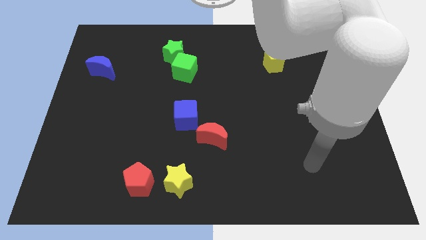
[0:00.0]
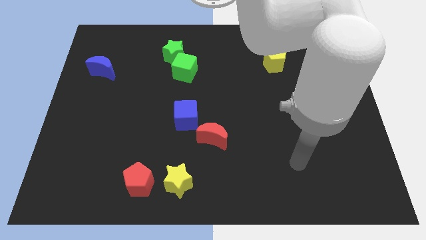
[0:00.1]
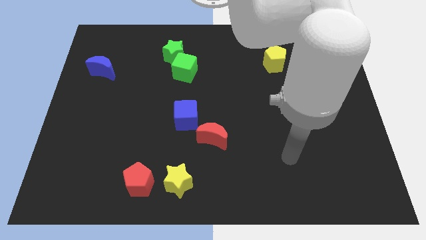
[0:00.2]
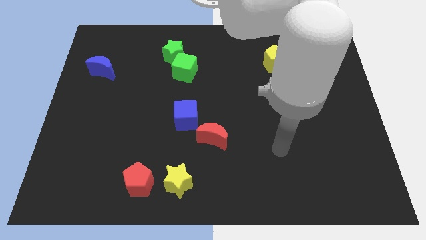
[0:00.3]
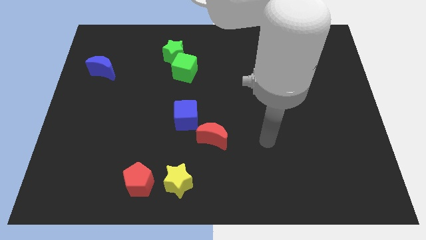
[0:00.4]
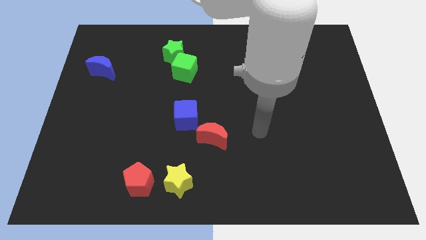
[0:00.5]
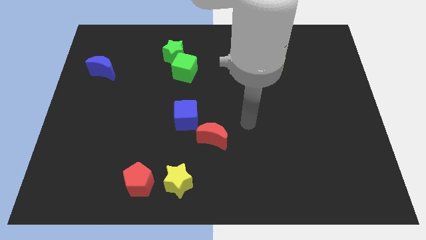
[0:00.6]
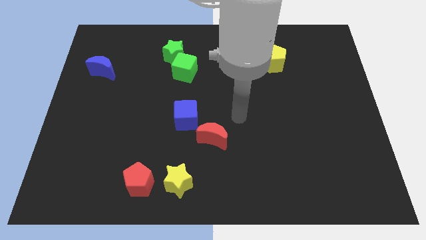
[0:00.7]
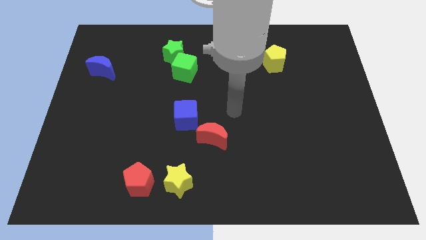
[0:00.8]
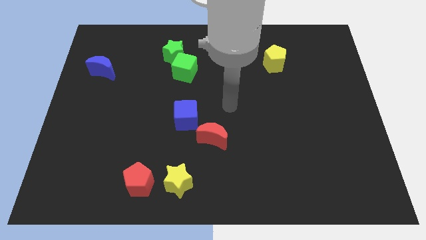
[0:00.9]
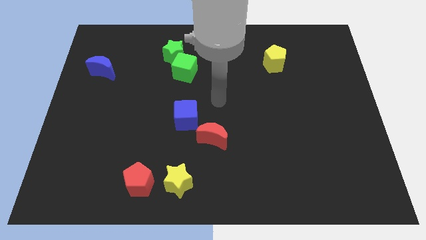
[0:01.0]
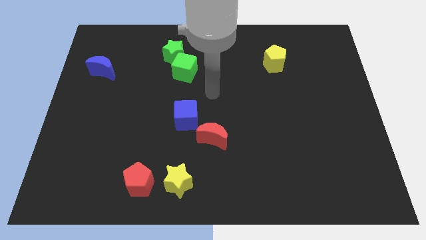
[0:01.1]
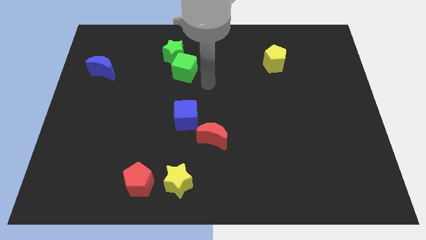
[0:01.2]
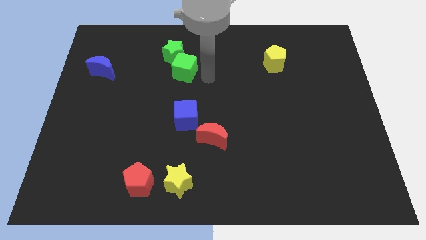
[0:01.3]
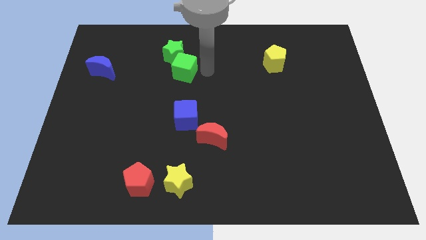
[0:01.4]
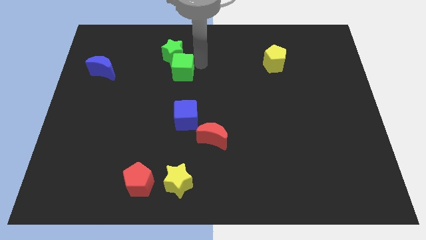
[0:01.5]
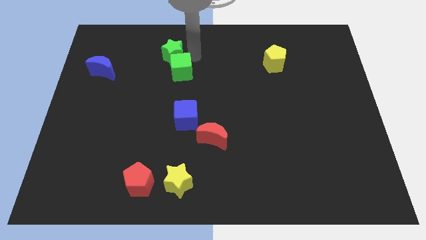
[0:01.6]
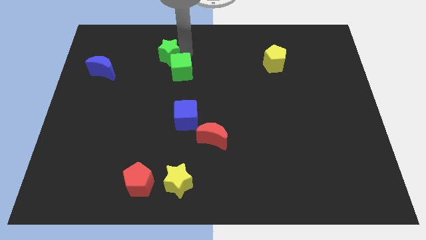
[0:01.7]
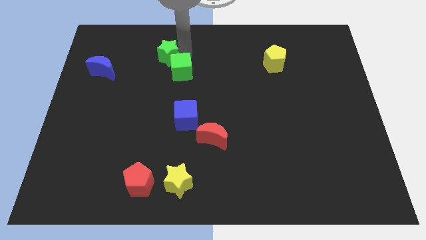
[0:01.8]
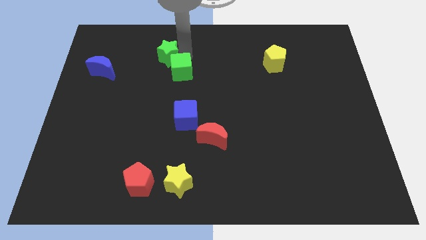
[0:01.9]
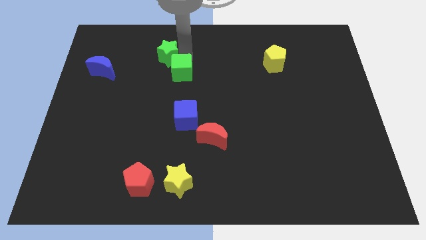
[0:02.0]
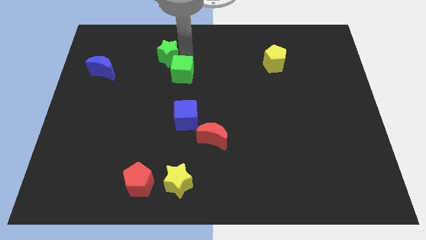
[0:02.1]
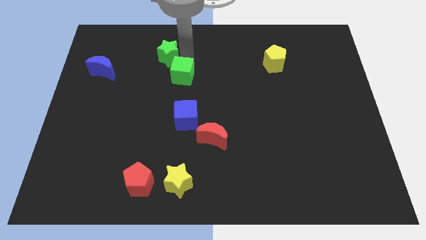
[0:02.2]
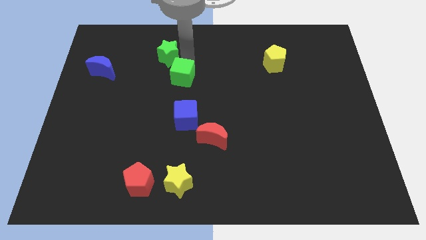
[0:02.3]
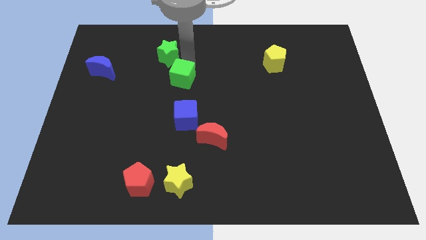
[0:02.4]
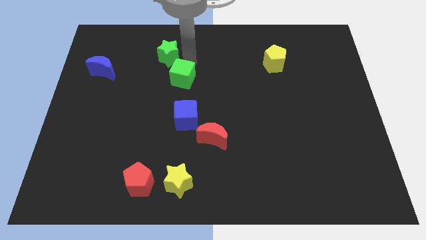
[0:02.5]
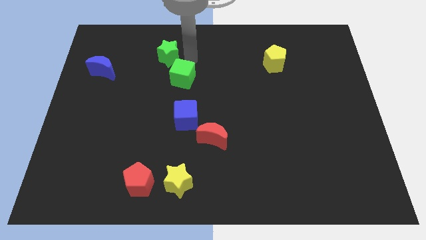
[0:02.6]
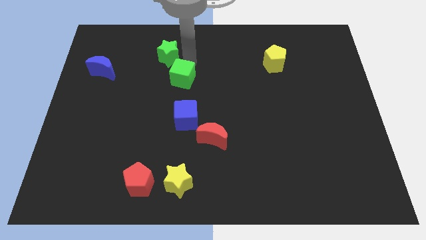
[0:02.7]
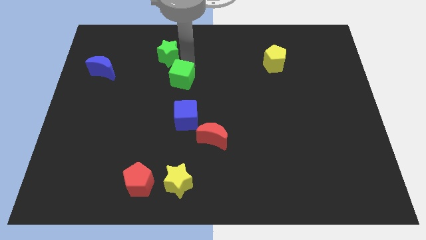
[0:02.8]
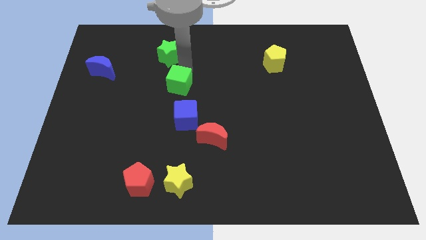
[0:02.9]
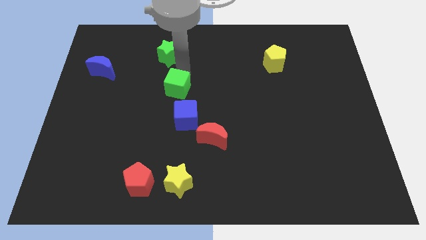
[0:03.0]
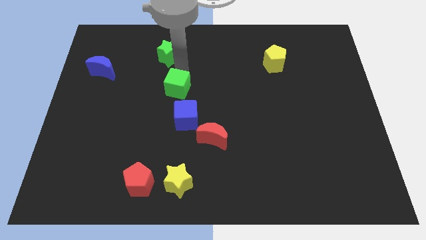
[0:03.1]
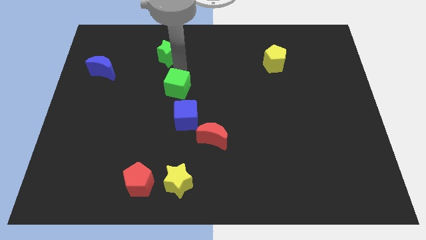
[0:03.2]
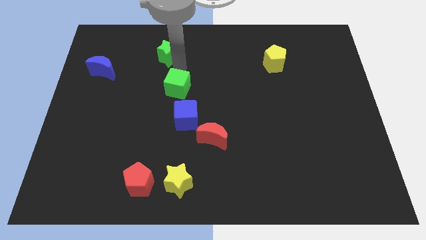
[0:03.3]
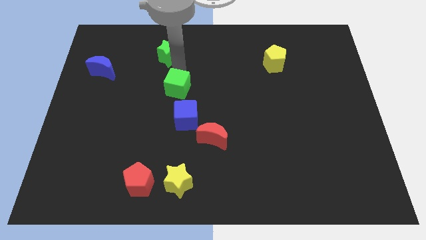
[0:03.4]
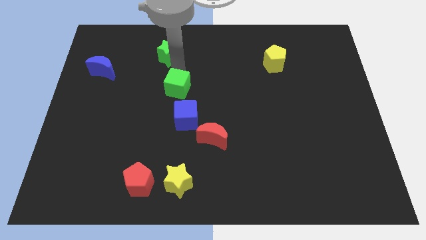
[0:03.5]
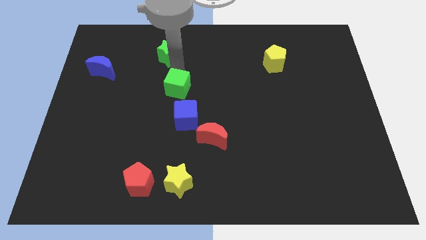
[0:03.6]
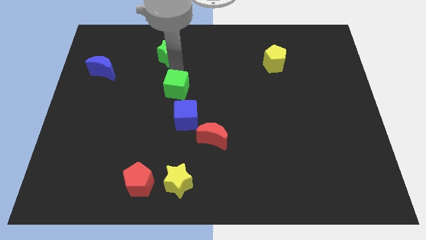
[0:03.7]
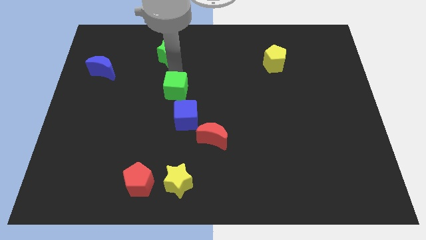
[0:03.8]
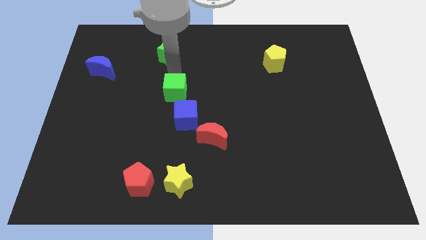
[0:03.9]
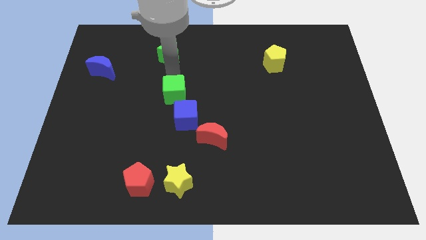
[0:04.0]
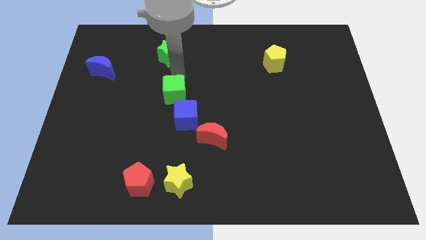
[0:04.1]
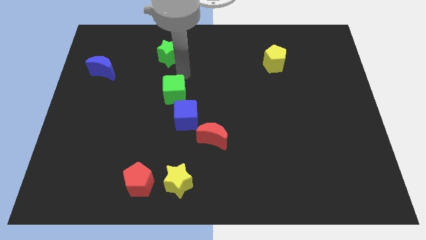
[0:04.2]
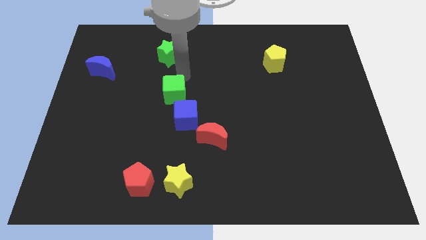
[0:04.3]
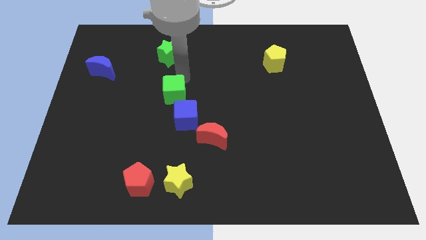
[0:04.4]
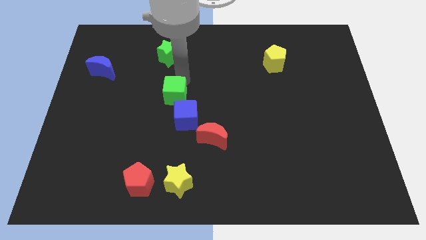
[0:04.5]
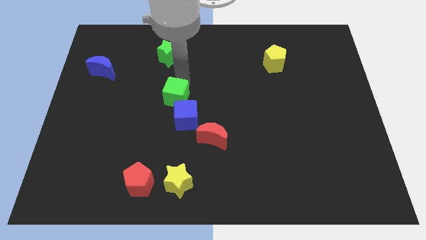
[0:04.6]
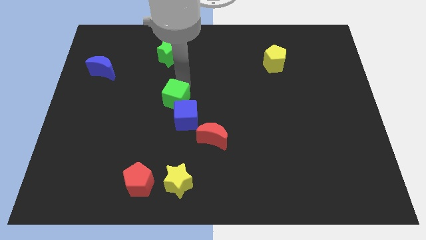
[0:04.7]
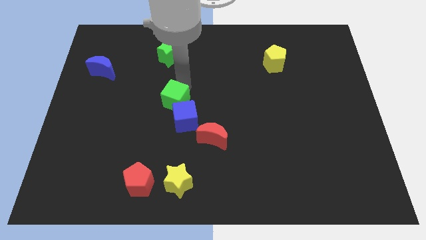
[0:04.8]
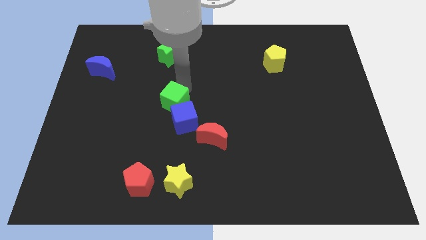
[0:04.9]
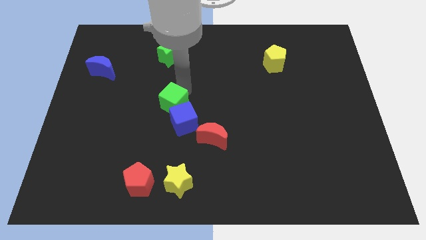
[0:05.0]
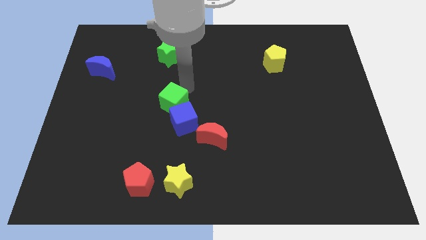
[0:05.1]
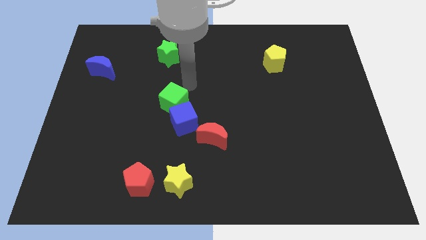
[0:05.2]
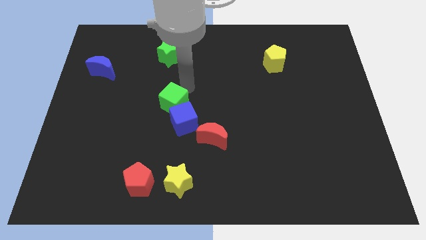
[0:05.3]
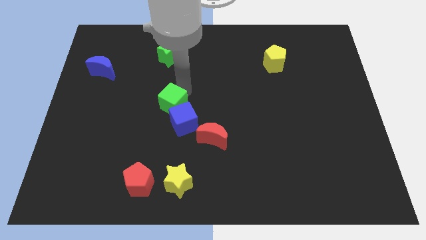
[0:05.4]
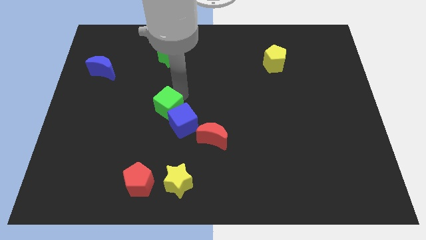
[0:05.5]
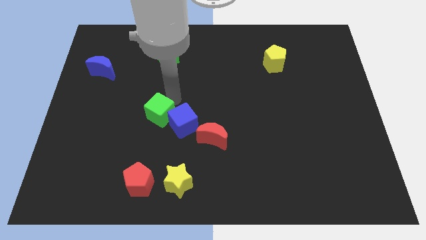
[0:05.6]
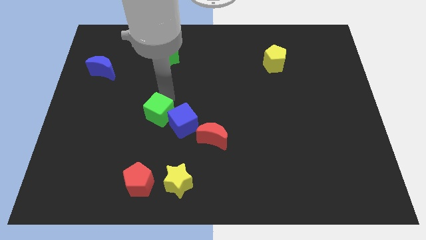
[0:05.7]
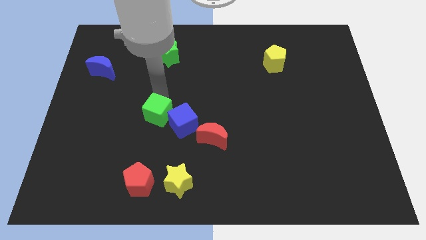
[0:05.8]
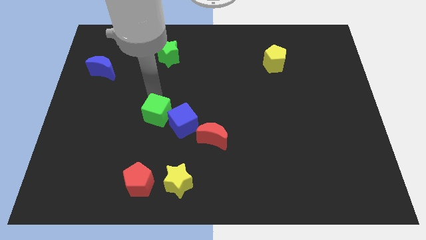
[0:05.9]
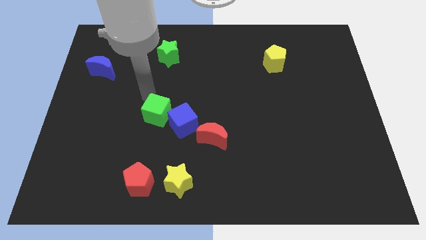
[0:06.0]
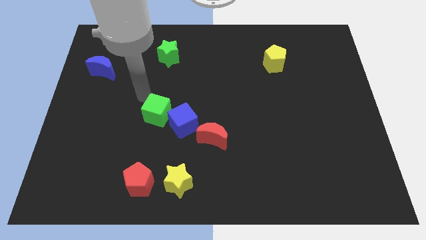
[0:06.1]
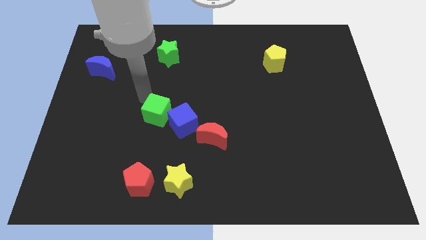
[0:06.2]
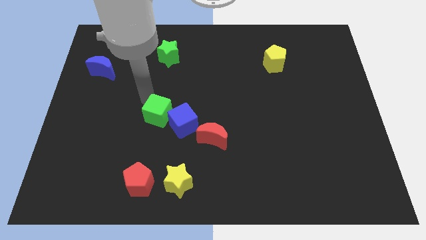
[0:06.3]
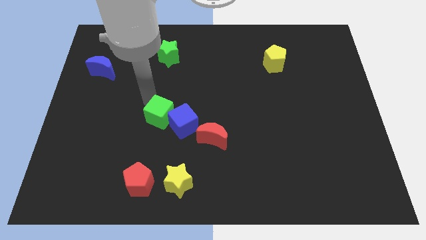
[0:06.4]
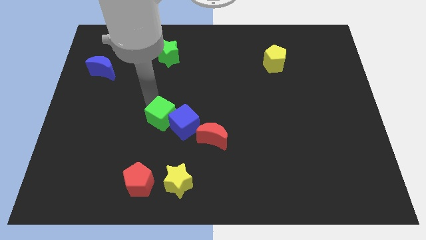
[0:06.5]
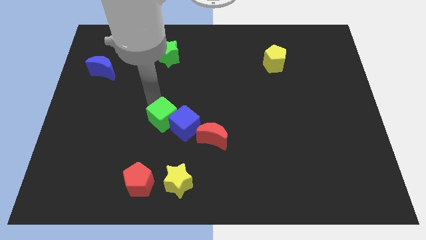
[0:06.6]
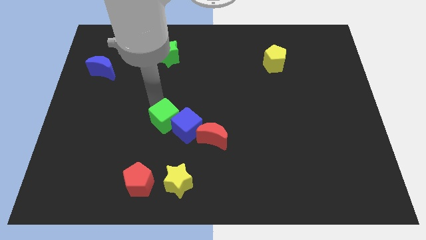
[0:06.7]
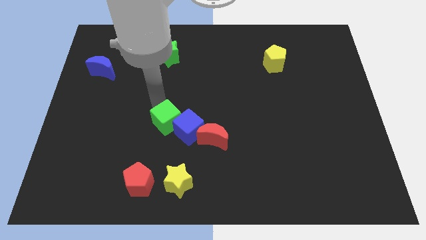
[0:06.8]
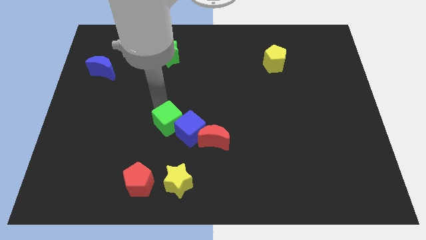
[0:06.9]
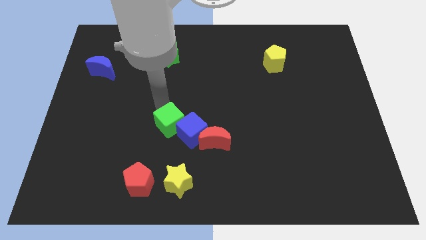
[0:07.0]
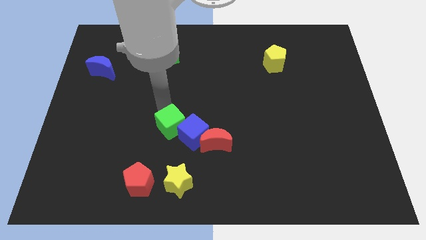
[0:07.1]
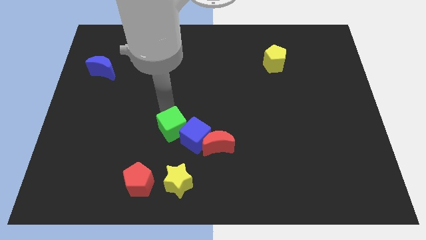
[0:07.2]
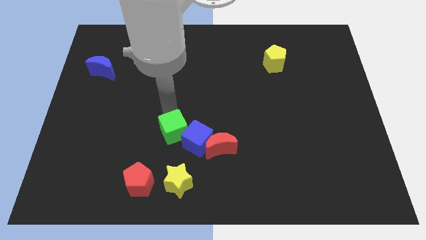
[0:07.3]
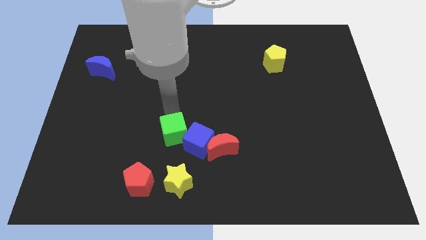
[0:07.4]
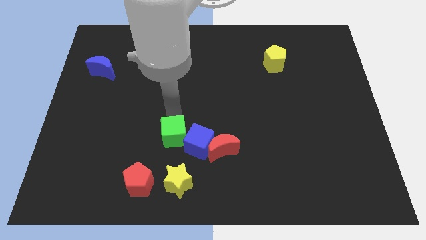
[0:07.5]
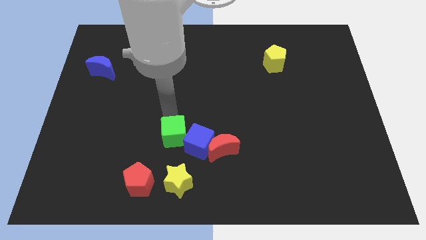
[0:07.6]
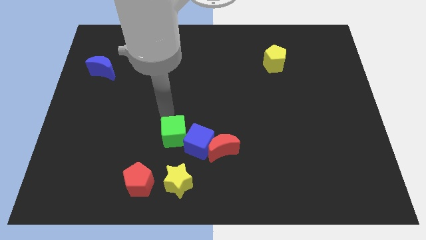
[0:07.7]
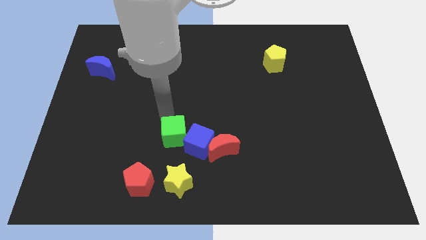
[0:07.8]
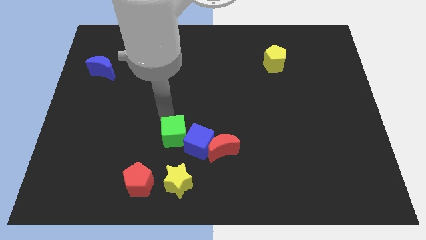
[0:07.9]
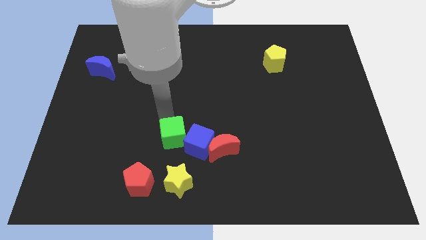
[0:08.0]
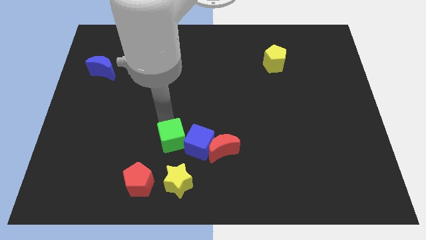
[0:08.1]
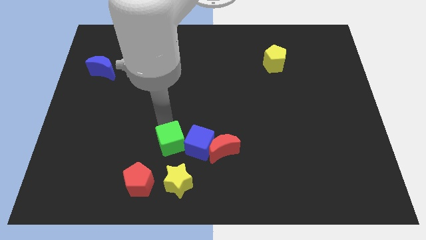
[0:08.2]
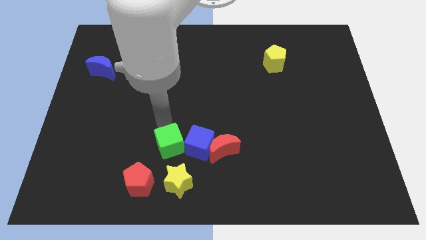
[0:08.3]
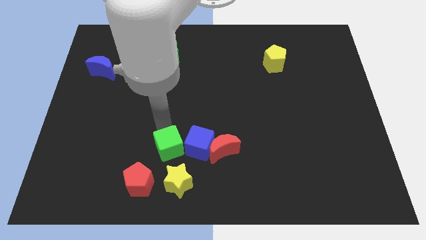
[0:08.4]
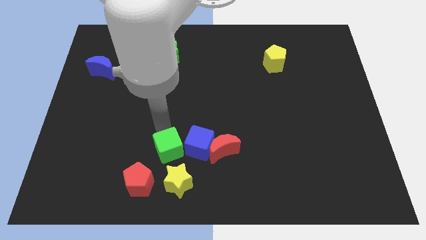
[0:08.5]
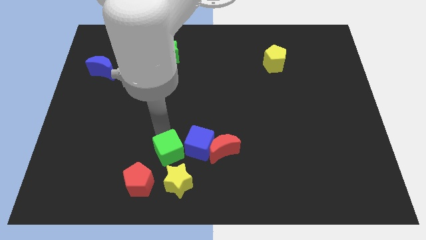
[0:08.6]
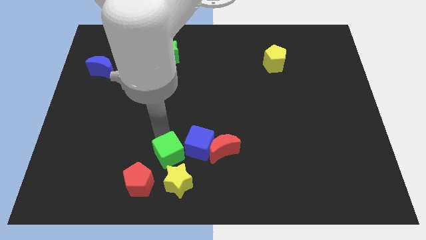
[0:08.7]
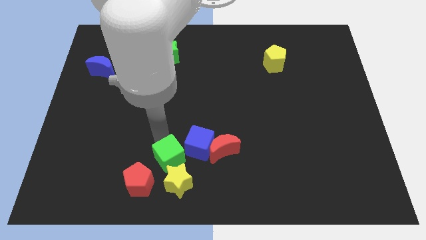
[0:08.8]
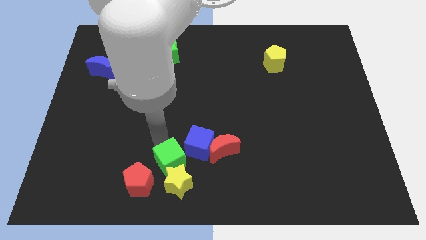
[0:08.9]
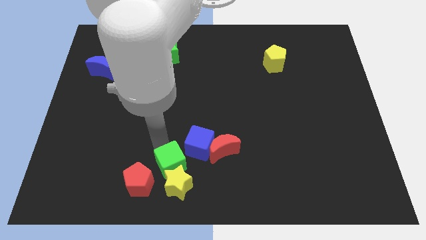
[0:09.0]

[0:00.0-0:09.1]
push the green cube to the right side of the red pentagon
